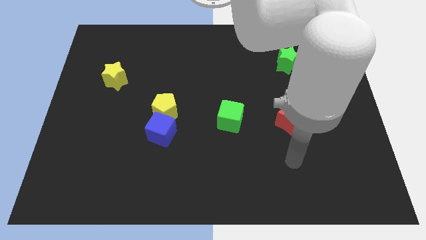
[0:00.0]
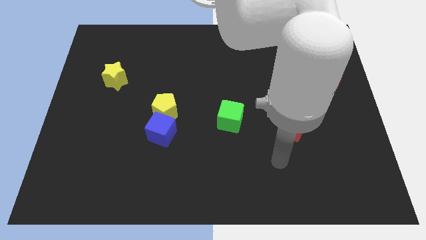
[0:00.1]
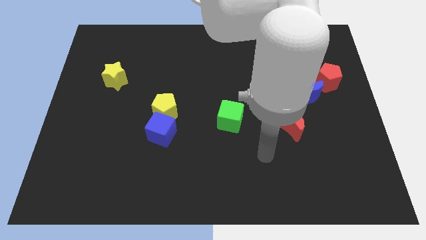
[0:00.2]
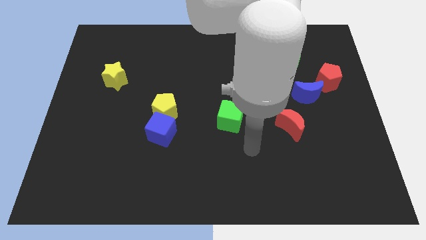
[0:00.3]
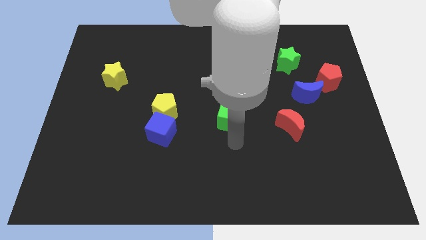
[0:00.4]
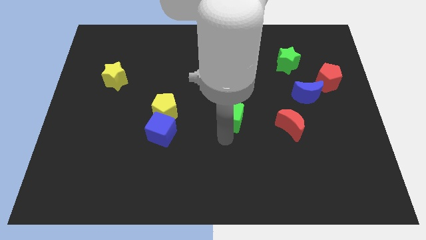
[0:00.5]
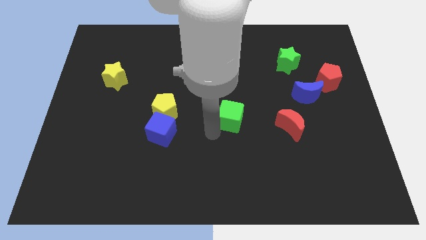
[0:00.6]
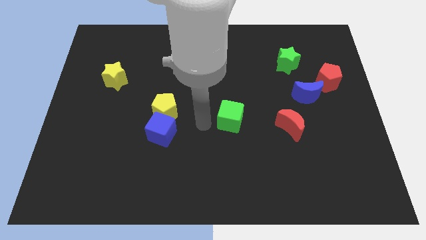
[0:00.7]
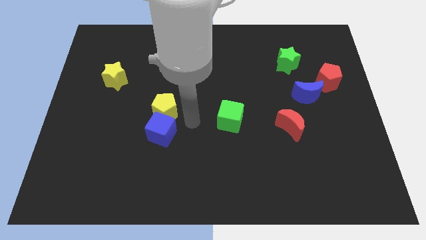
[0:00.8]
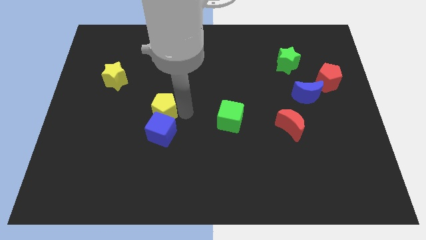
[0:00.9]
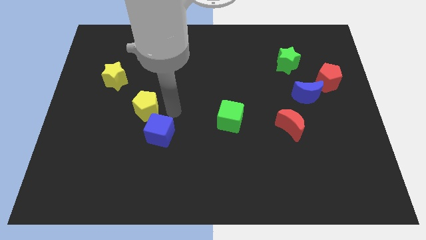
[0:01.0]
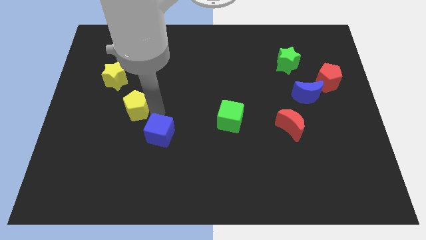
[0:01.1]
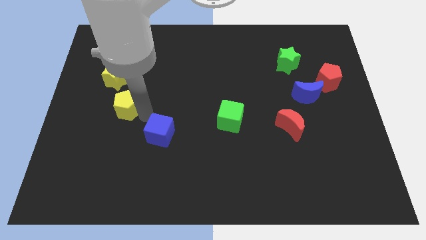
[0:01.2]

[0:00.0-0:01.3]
pull the blue cube apart from the yellow pentagon

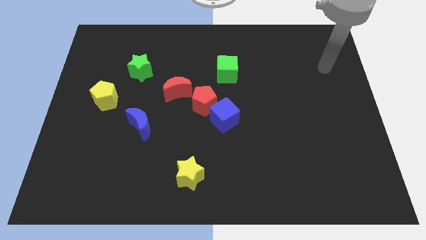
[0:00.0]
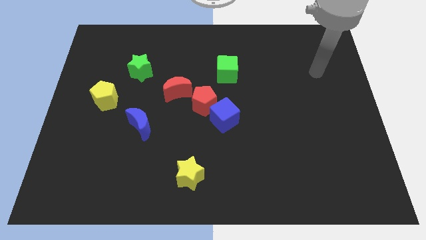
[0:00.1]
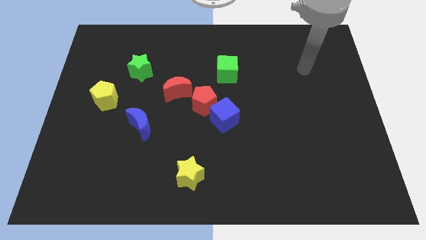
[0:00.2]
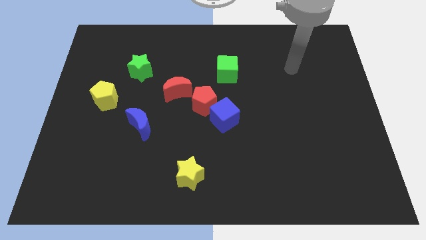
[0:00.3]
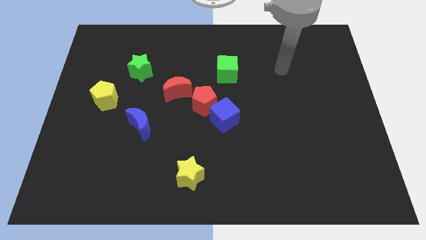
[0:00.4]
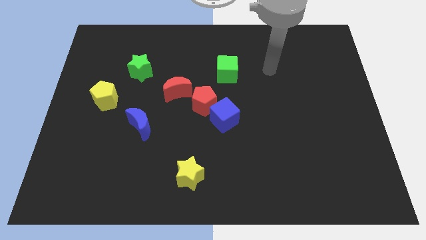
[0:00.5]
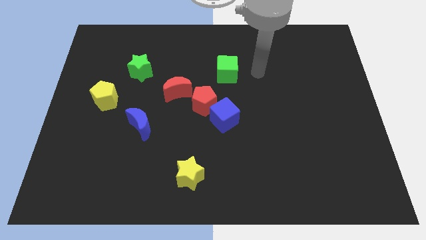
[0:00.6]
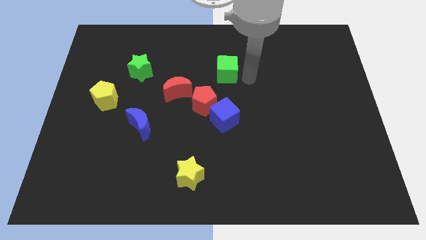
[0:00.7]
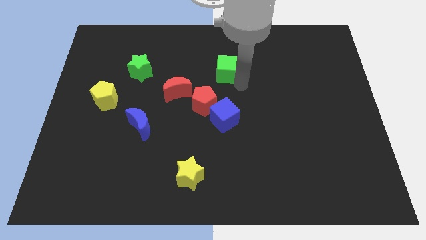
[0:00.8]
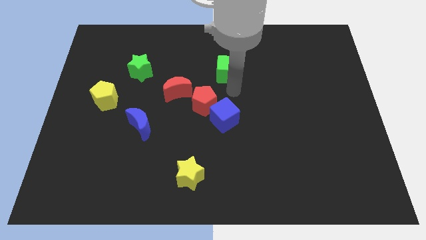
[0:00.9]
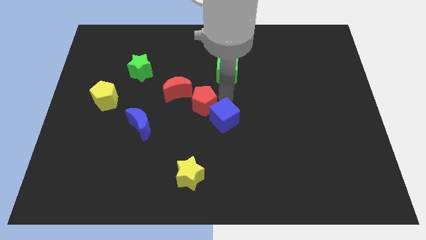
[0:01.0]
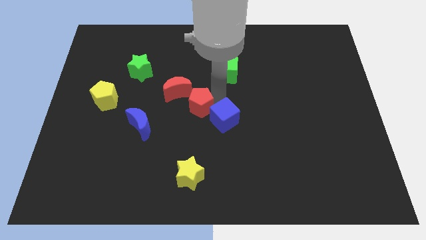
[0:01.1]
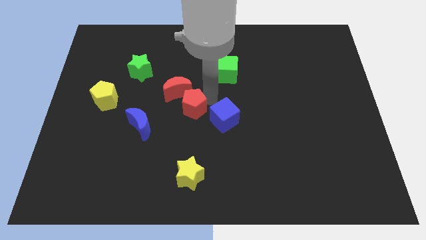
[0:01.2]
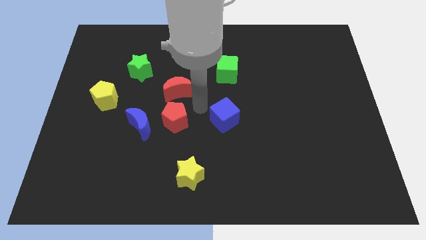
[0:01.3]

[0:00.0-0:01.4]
pull the blue cube apart from the red pentagon

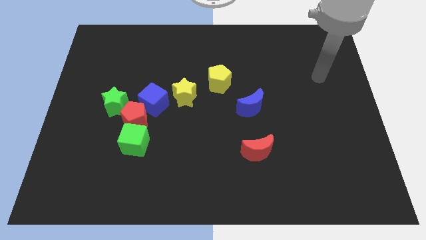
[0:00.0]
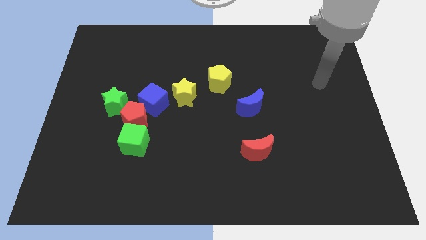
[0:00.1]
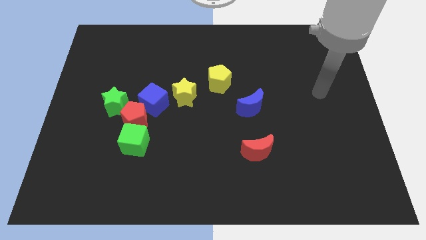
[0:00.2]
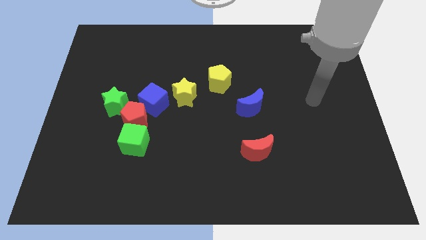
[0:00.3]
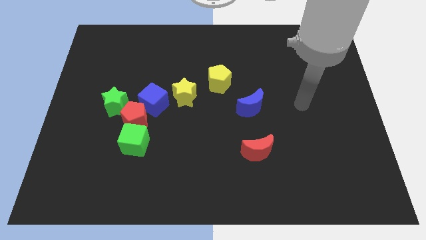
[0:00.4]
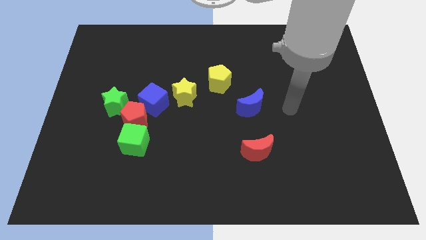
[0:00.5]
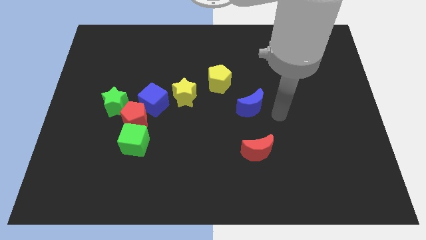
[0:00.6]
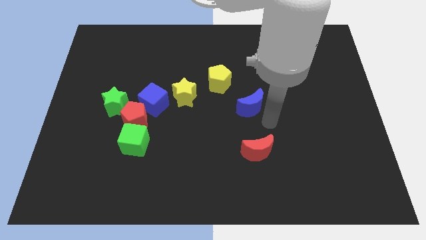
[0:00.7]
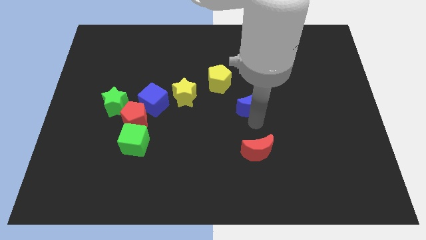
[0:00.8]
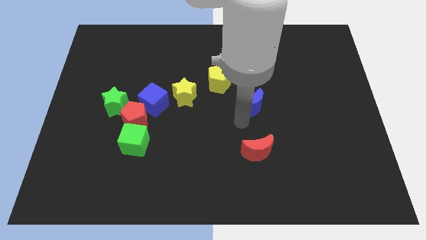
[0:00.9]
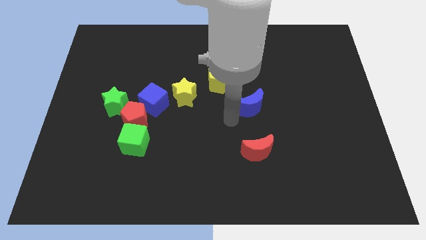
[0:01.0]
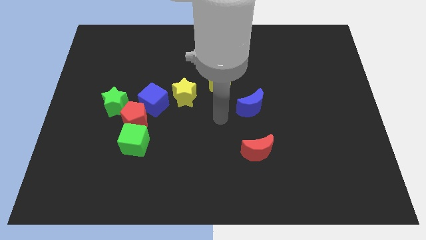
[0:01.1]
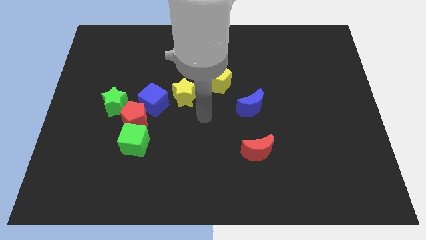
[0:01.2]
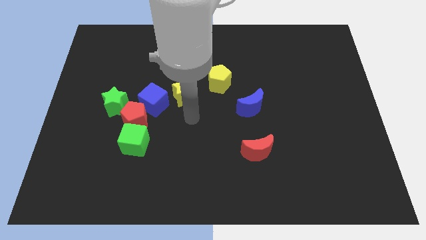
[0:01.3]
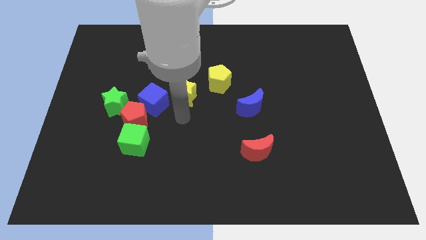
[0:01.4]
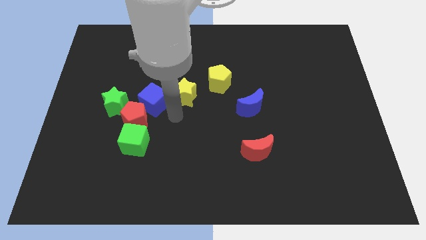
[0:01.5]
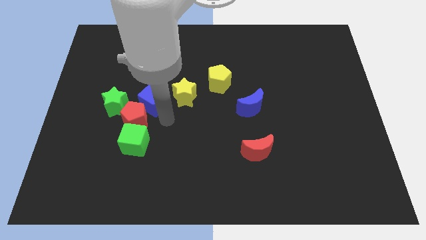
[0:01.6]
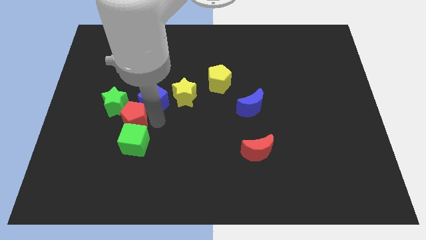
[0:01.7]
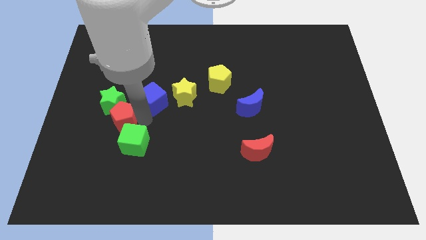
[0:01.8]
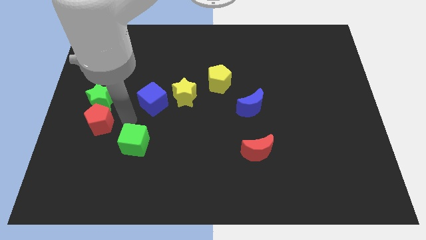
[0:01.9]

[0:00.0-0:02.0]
move the green cube away from the red pentagon

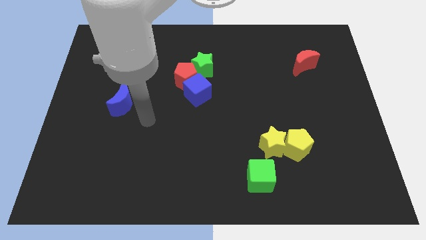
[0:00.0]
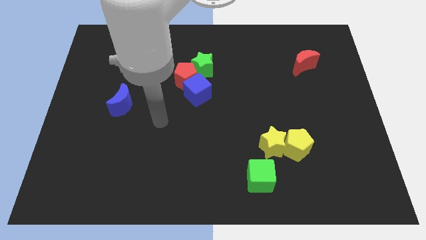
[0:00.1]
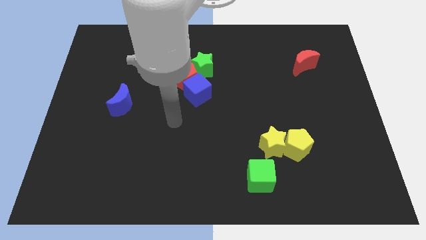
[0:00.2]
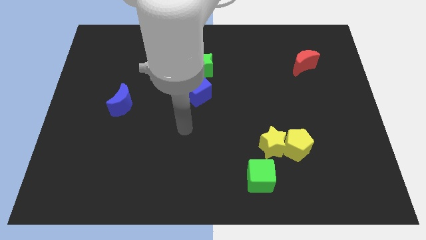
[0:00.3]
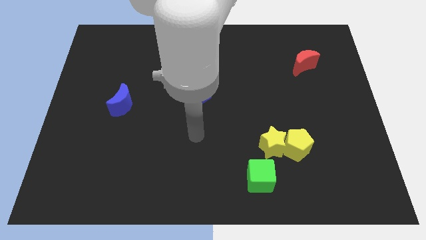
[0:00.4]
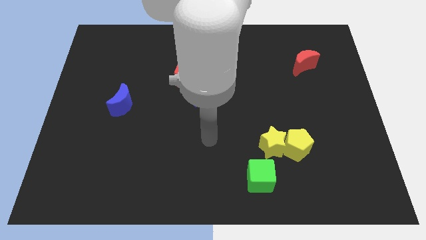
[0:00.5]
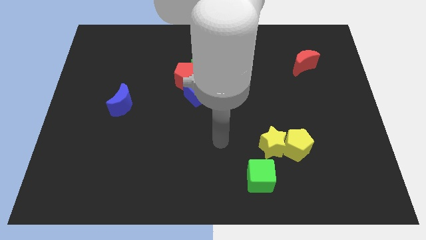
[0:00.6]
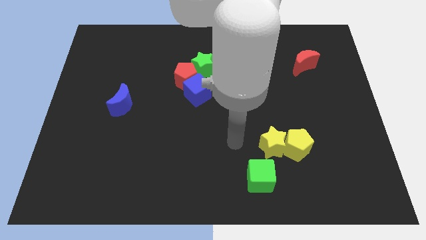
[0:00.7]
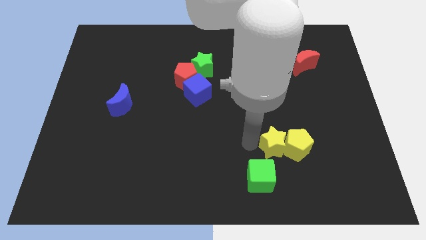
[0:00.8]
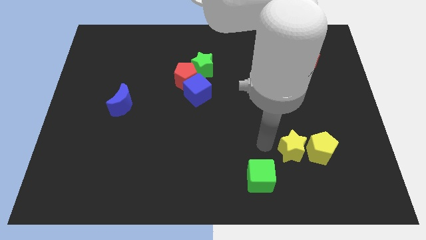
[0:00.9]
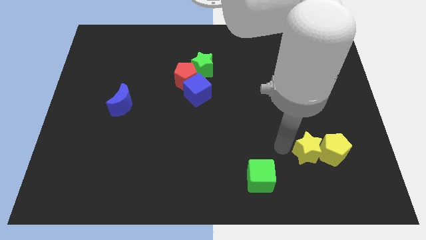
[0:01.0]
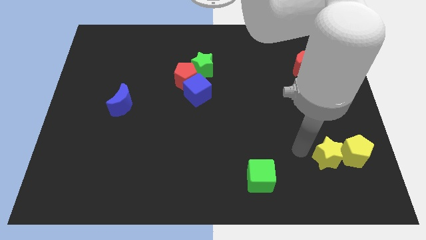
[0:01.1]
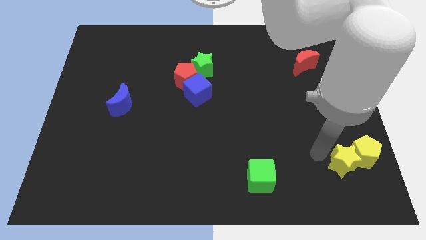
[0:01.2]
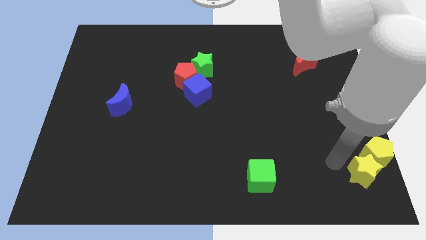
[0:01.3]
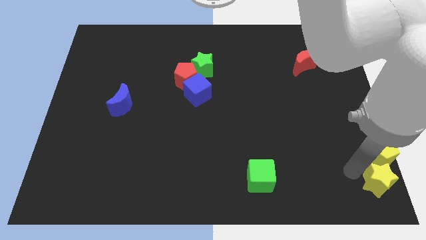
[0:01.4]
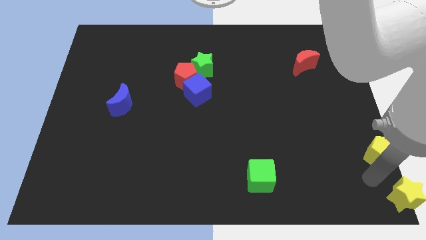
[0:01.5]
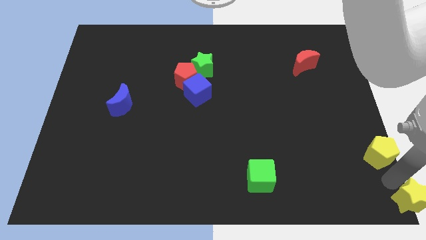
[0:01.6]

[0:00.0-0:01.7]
move the yellow pentagon away from the yellow star

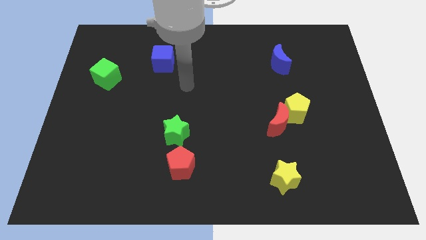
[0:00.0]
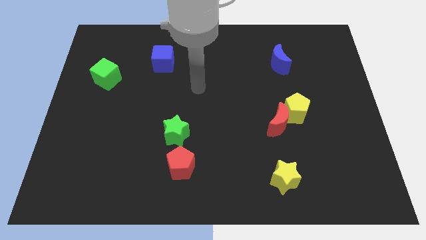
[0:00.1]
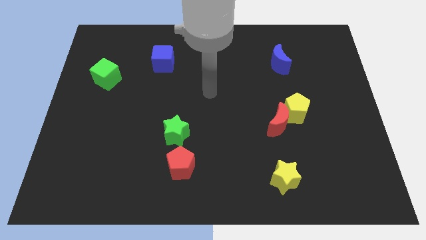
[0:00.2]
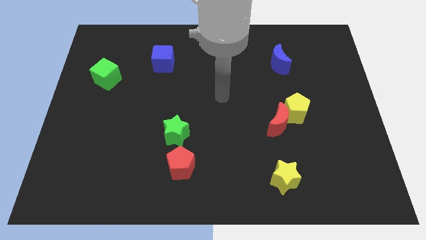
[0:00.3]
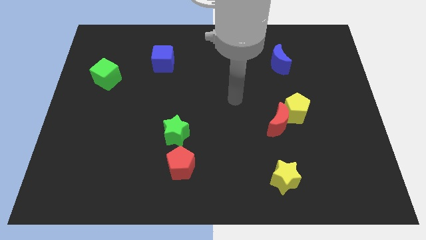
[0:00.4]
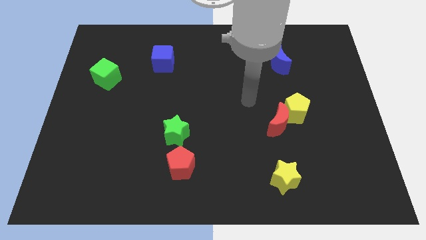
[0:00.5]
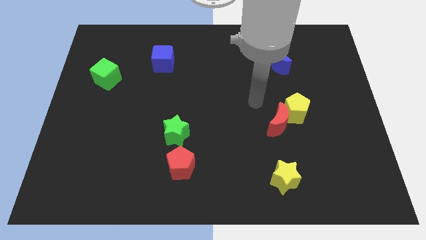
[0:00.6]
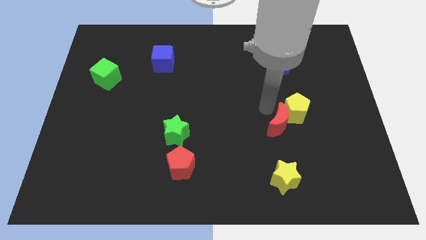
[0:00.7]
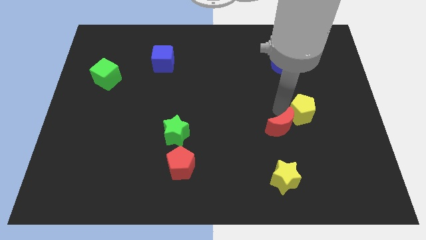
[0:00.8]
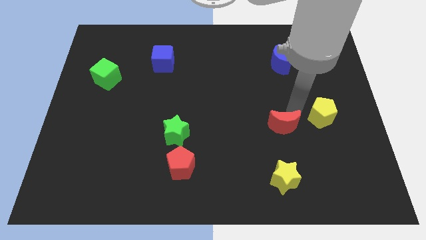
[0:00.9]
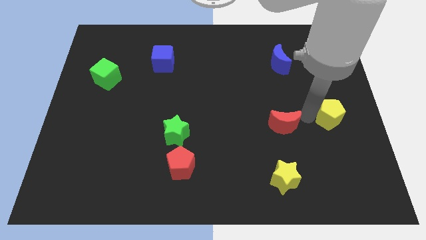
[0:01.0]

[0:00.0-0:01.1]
separate the red moon from the yellow pentagon

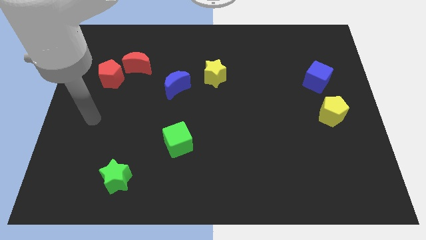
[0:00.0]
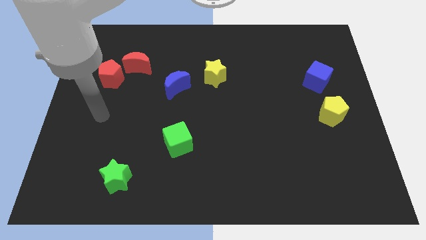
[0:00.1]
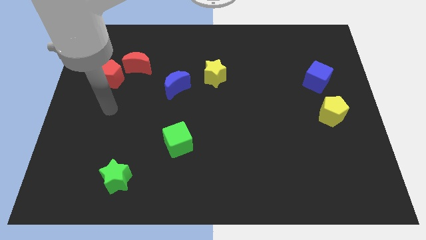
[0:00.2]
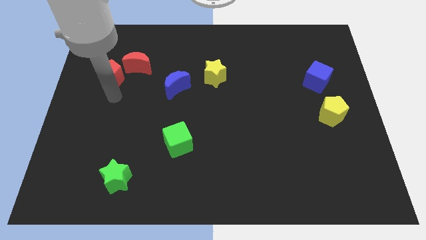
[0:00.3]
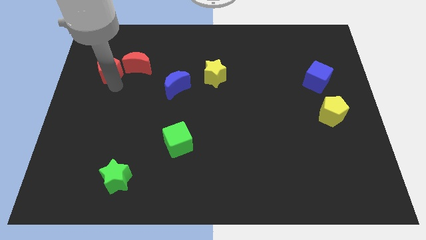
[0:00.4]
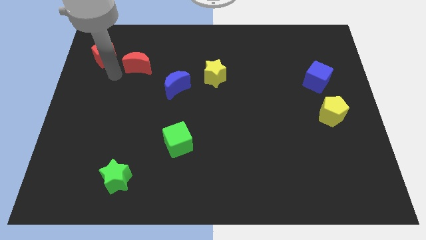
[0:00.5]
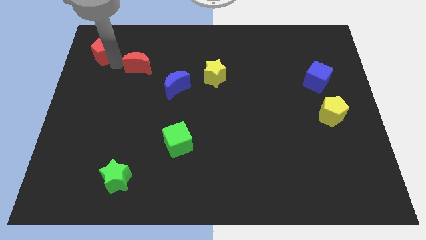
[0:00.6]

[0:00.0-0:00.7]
separate the red moon from the red pentagon

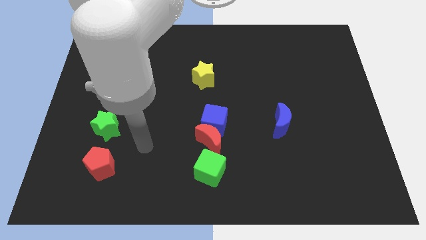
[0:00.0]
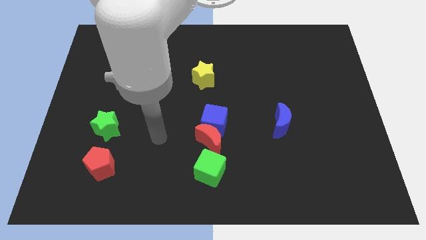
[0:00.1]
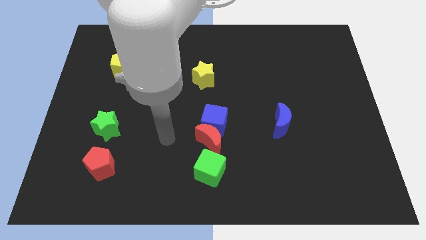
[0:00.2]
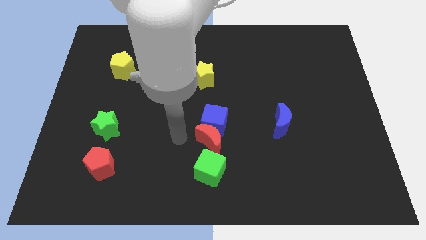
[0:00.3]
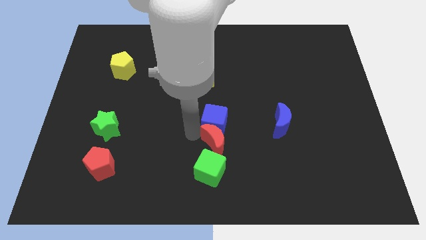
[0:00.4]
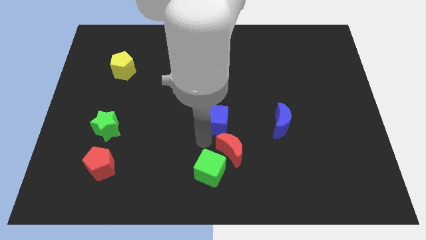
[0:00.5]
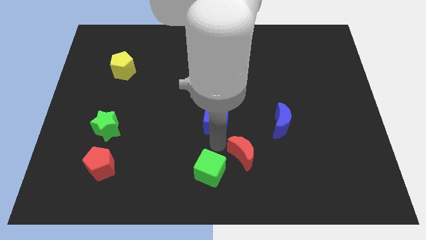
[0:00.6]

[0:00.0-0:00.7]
separate the blue cube from the red moon

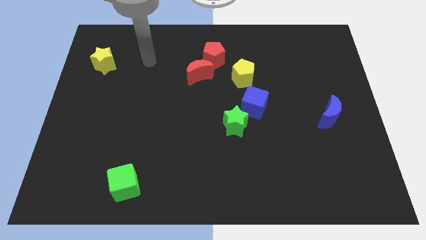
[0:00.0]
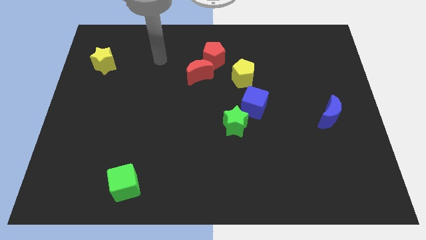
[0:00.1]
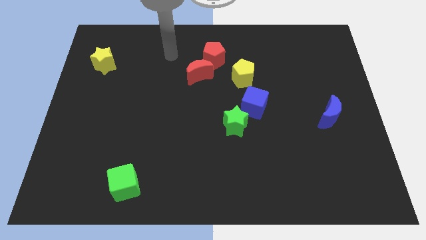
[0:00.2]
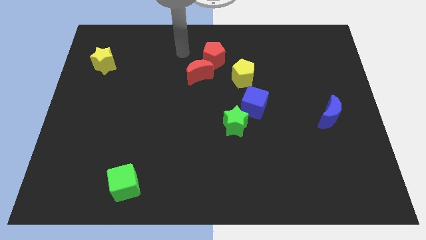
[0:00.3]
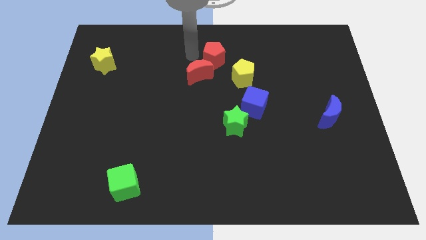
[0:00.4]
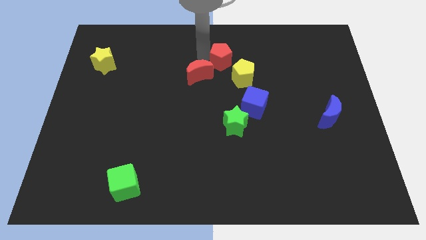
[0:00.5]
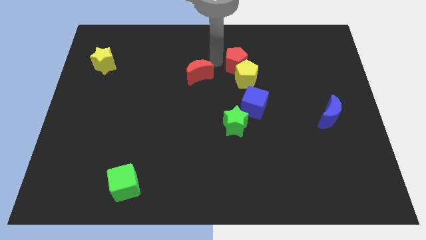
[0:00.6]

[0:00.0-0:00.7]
move the red moon away from the red pentagon
